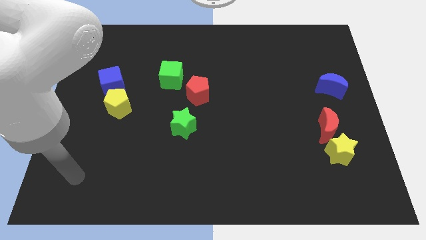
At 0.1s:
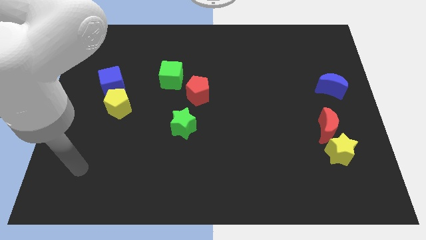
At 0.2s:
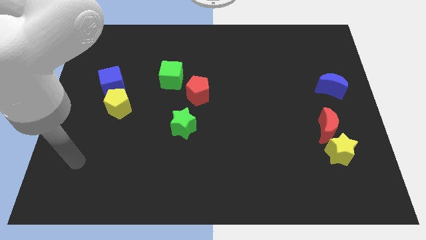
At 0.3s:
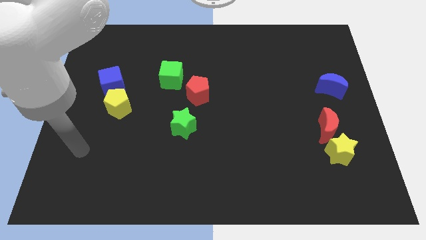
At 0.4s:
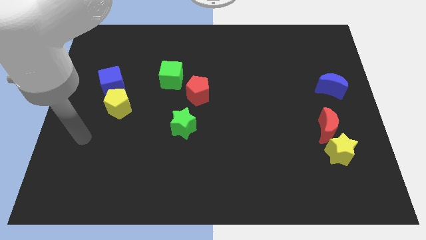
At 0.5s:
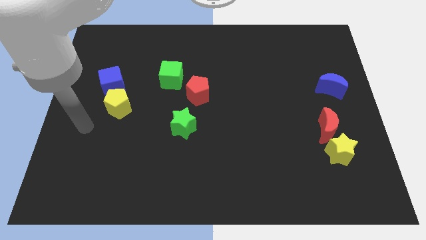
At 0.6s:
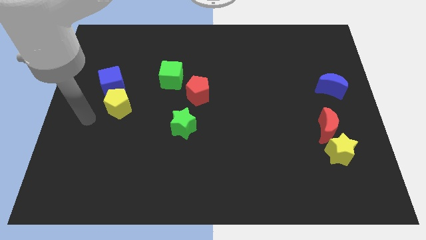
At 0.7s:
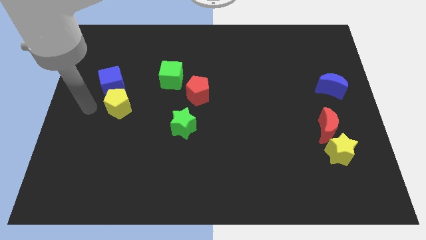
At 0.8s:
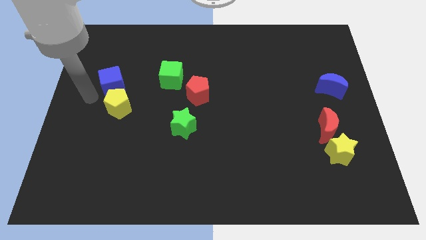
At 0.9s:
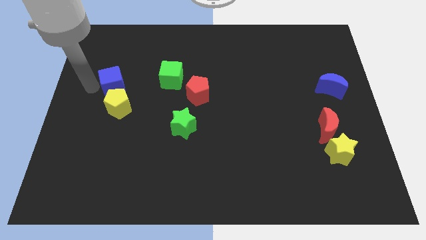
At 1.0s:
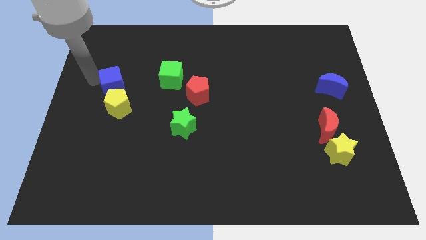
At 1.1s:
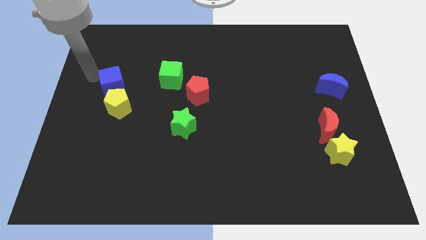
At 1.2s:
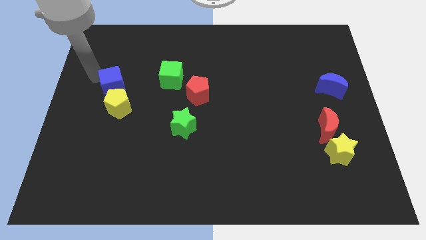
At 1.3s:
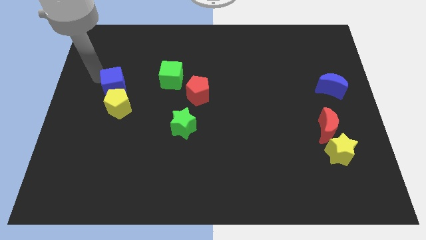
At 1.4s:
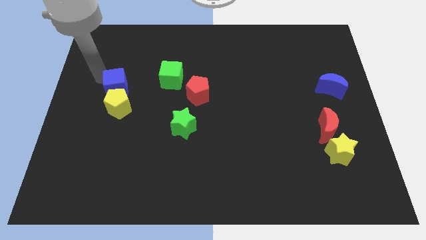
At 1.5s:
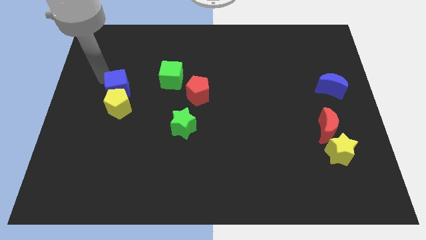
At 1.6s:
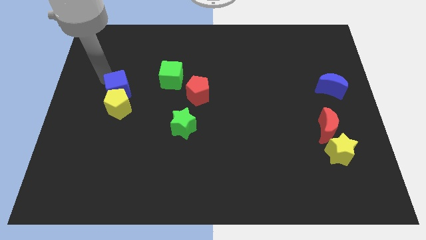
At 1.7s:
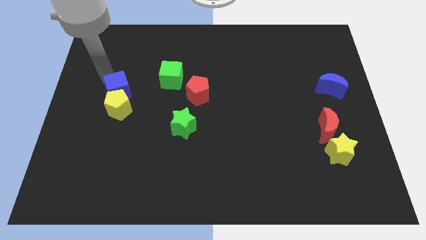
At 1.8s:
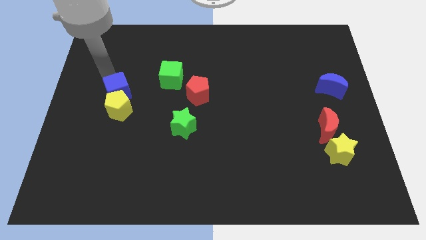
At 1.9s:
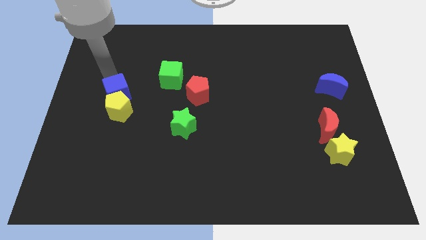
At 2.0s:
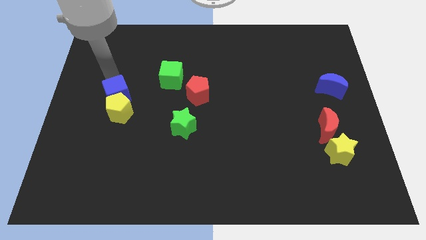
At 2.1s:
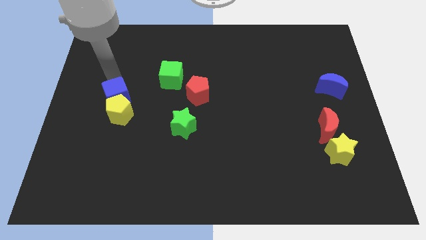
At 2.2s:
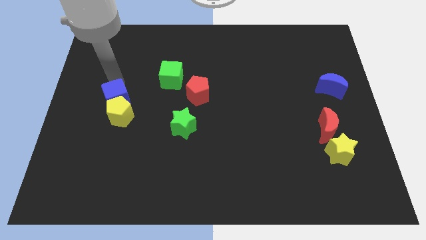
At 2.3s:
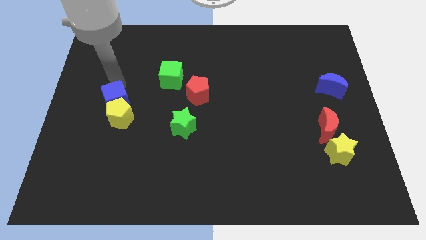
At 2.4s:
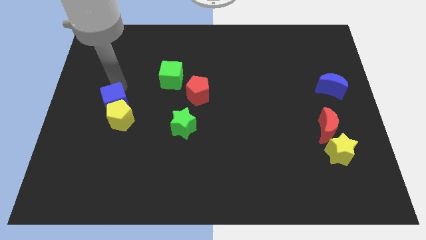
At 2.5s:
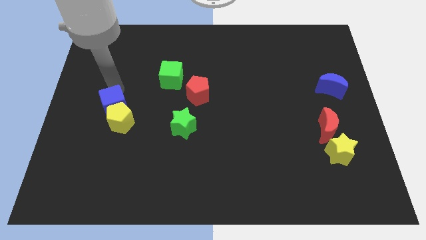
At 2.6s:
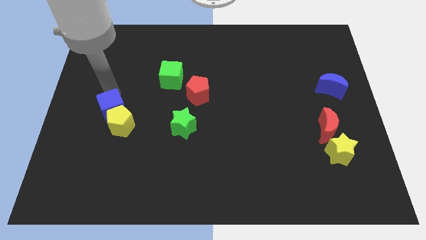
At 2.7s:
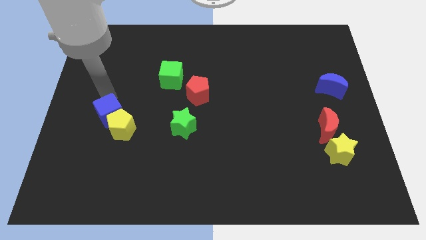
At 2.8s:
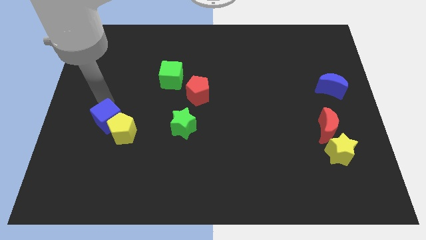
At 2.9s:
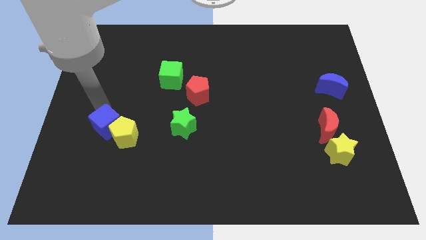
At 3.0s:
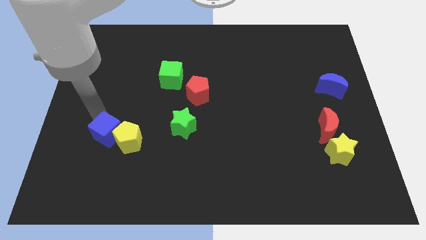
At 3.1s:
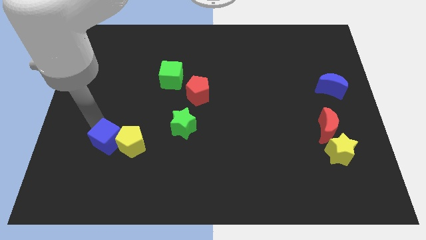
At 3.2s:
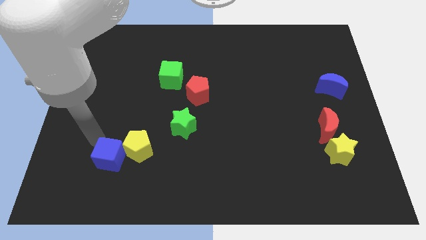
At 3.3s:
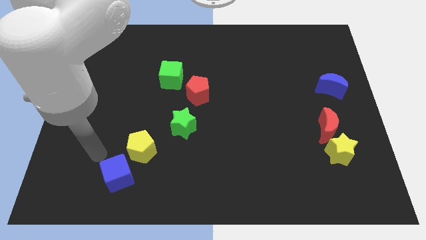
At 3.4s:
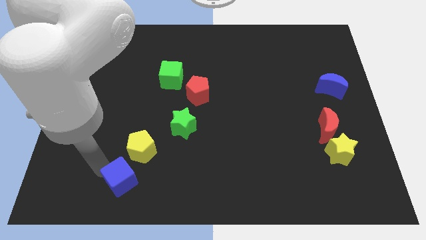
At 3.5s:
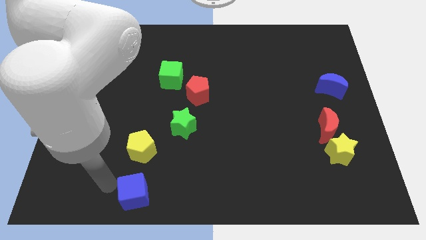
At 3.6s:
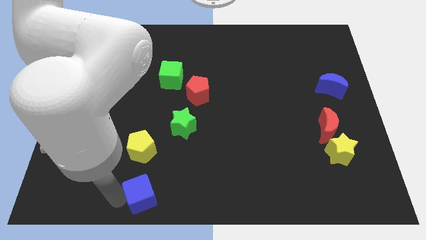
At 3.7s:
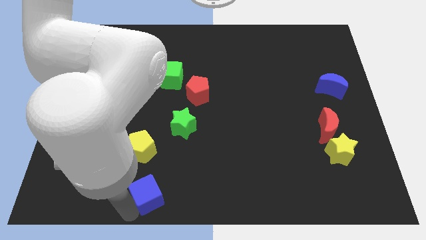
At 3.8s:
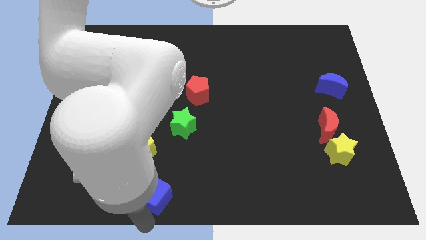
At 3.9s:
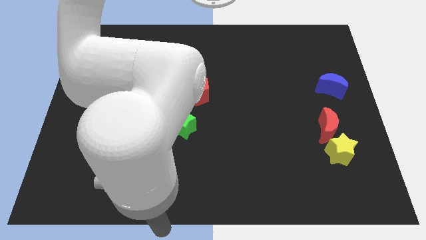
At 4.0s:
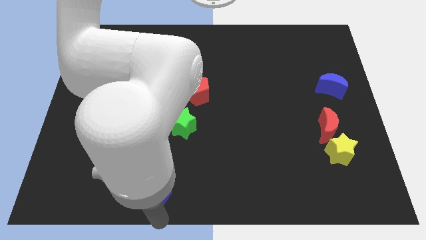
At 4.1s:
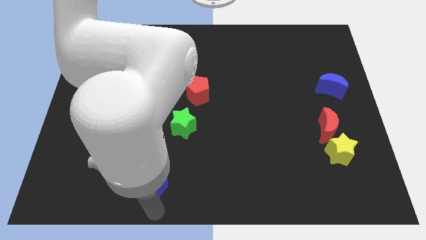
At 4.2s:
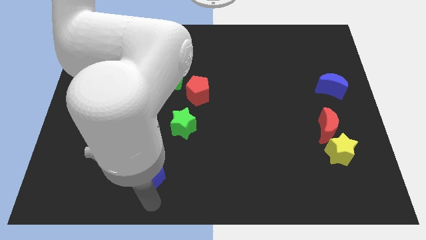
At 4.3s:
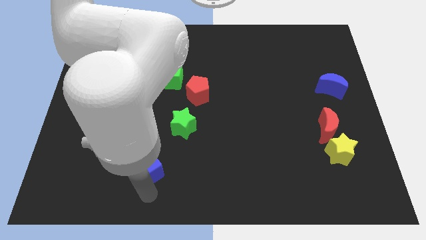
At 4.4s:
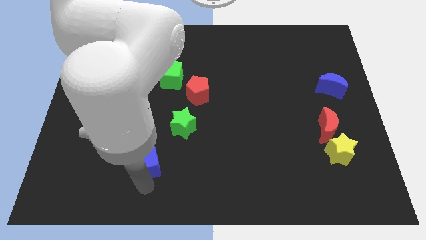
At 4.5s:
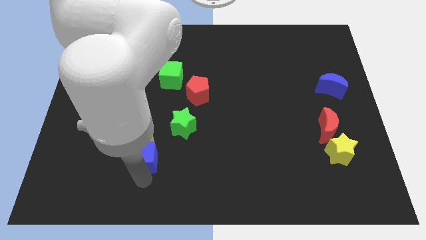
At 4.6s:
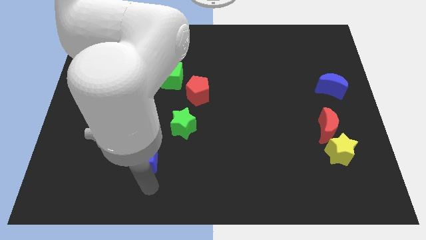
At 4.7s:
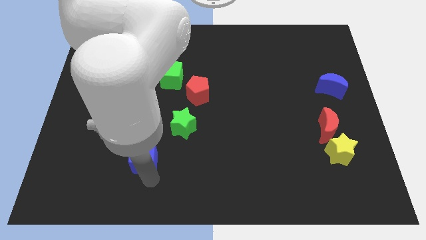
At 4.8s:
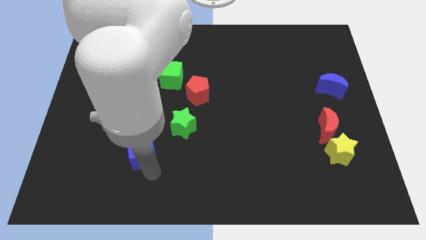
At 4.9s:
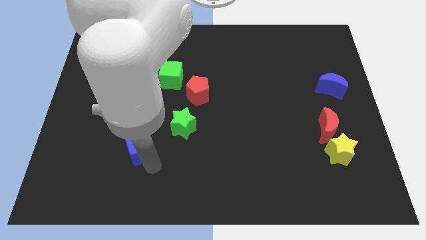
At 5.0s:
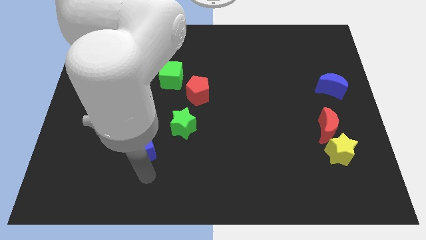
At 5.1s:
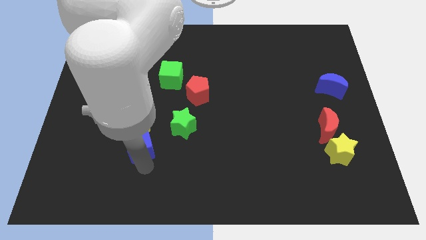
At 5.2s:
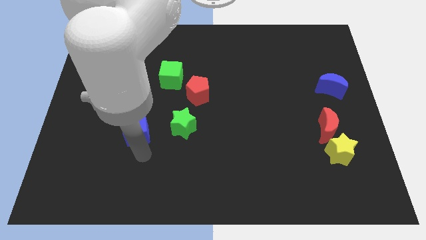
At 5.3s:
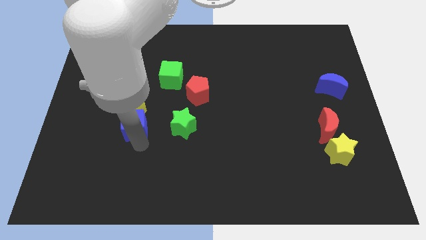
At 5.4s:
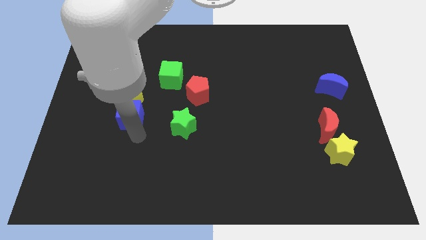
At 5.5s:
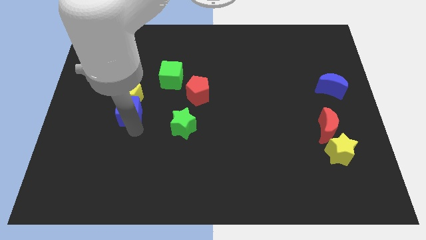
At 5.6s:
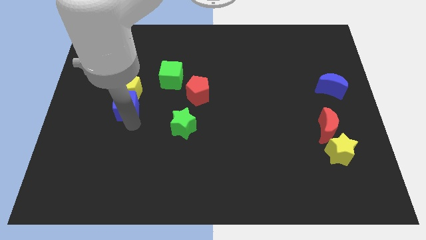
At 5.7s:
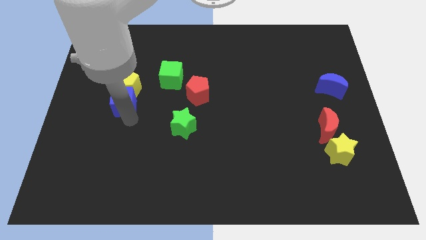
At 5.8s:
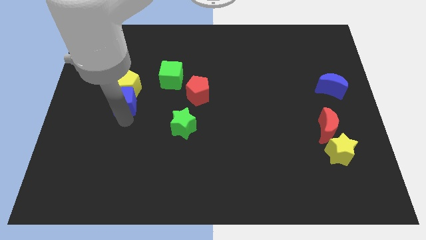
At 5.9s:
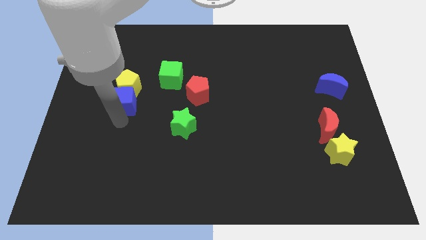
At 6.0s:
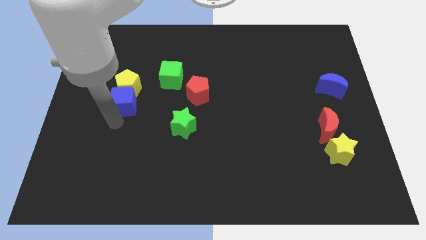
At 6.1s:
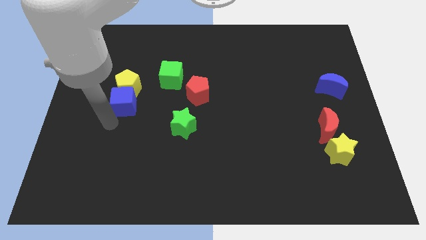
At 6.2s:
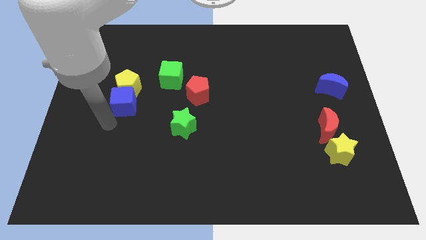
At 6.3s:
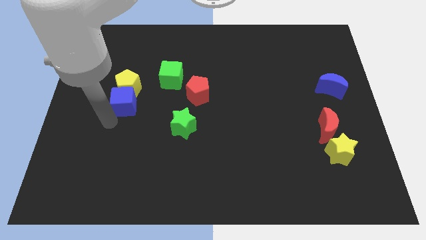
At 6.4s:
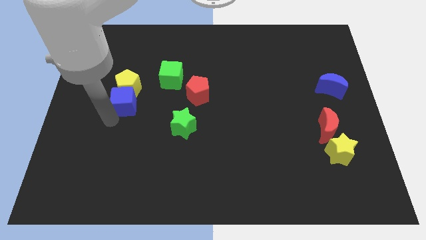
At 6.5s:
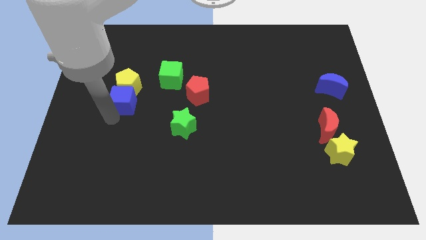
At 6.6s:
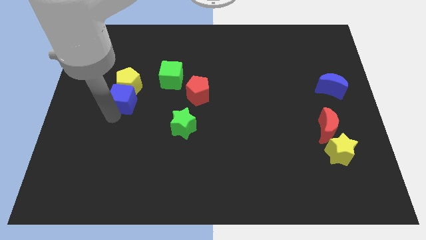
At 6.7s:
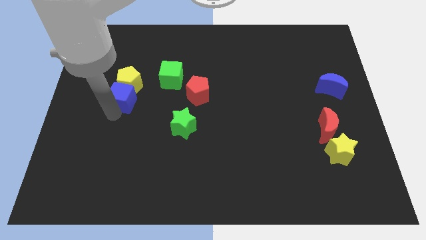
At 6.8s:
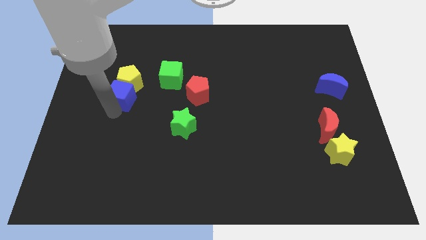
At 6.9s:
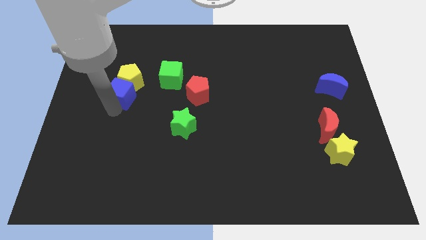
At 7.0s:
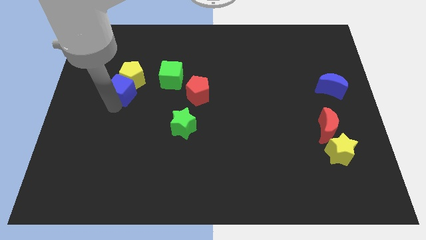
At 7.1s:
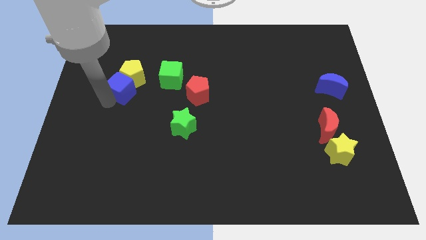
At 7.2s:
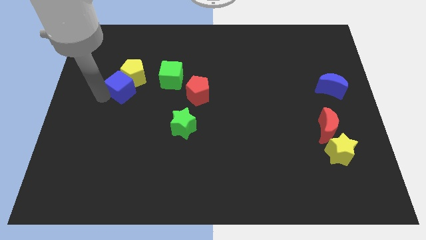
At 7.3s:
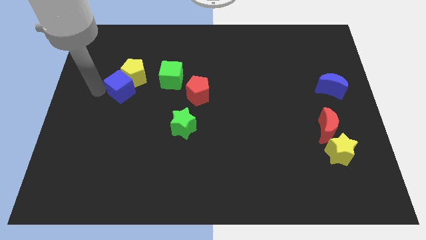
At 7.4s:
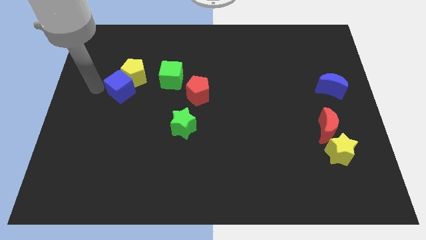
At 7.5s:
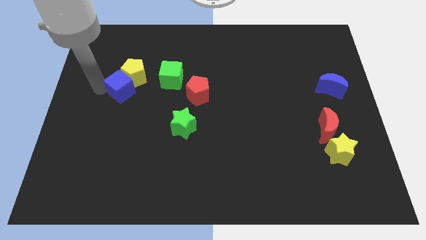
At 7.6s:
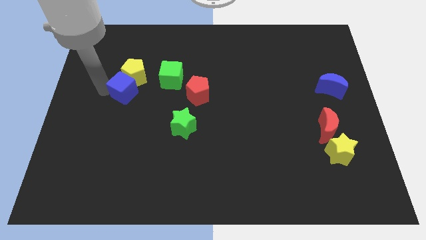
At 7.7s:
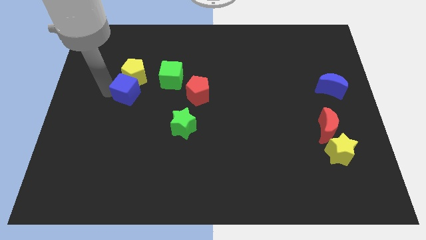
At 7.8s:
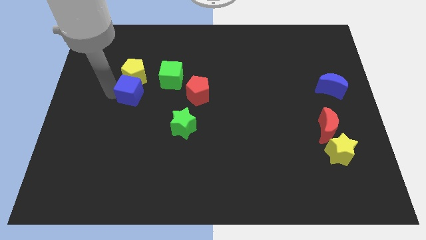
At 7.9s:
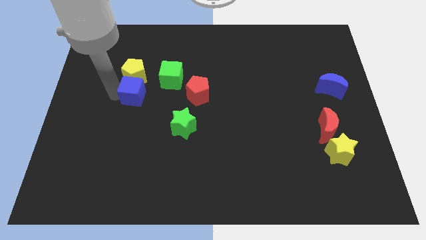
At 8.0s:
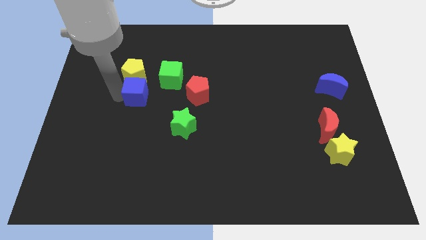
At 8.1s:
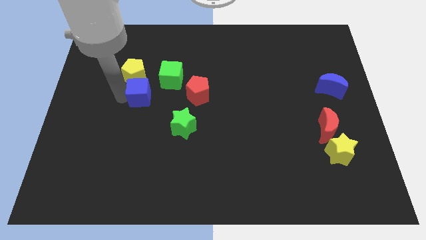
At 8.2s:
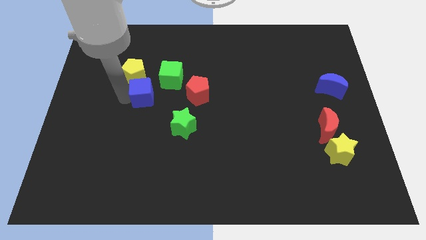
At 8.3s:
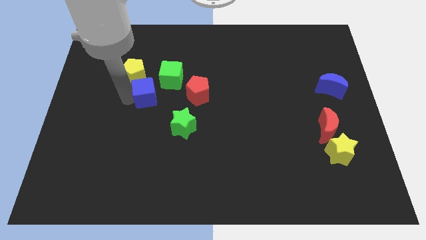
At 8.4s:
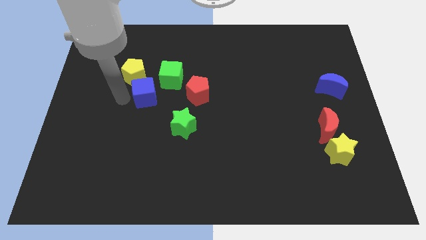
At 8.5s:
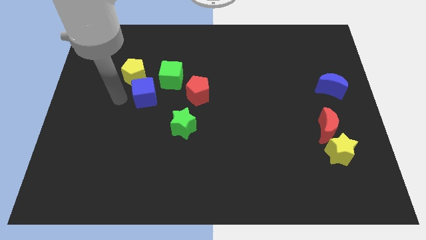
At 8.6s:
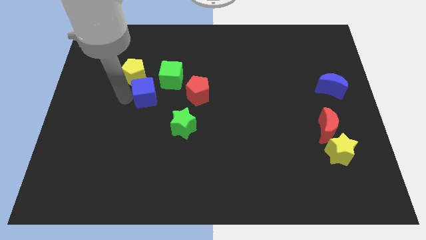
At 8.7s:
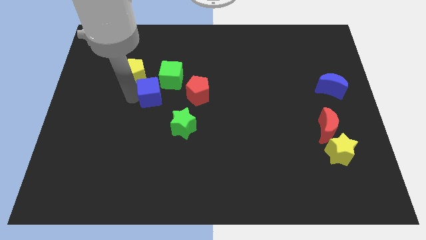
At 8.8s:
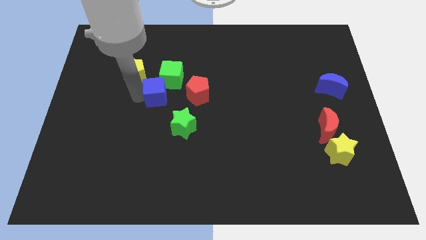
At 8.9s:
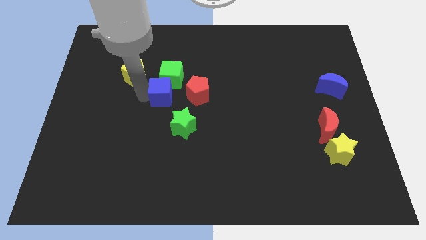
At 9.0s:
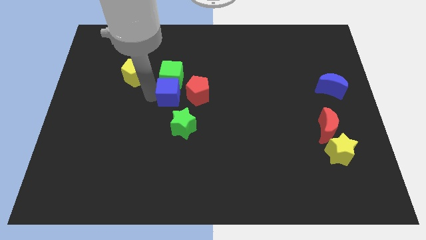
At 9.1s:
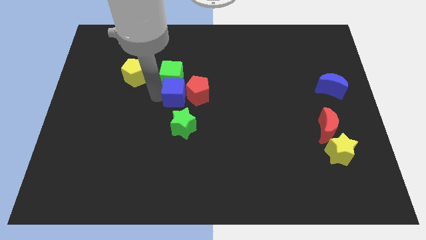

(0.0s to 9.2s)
put the blue cube close to the red pentagon
